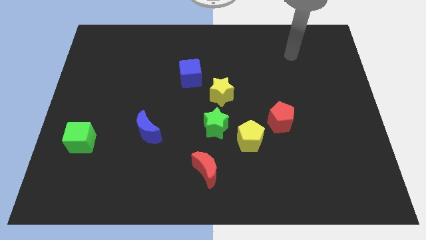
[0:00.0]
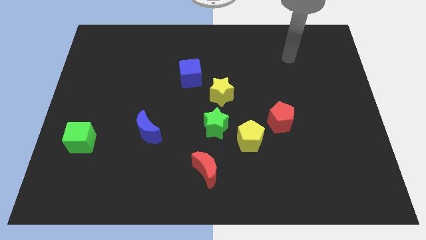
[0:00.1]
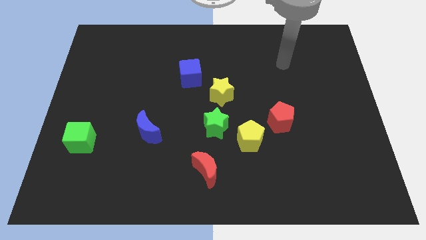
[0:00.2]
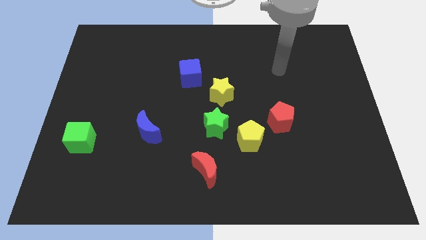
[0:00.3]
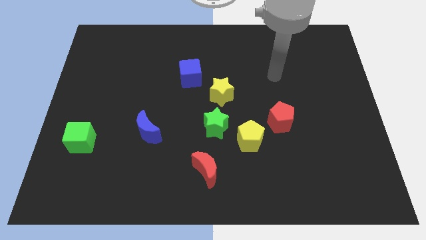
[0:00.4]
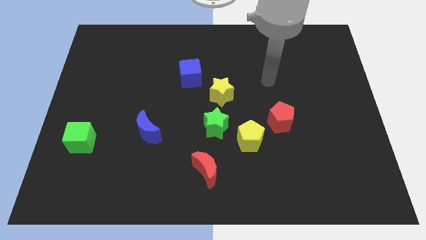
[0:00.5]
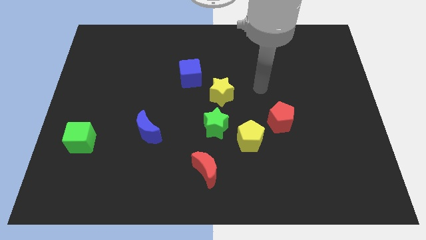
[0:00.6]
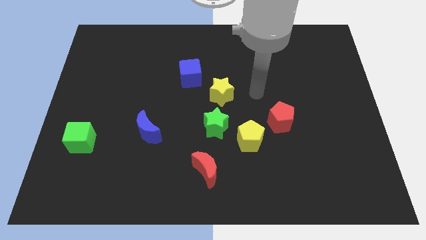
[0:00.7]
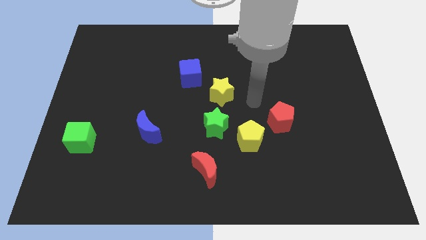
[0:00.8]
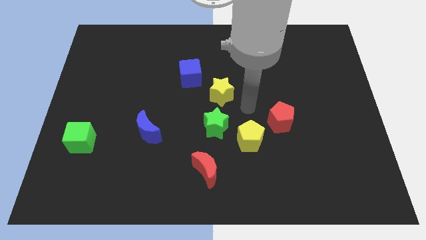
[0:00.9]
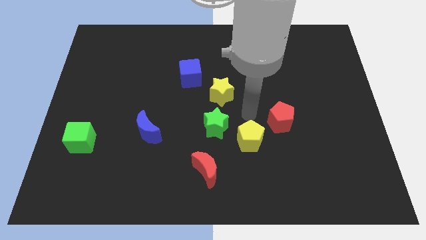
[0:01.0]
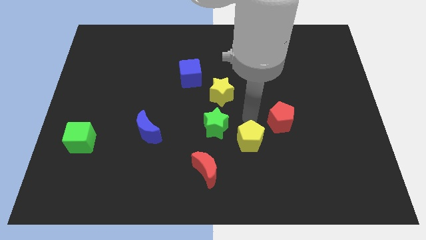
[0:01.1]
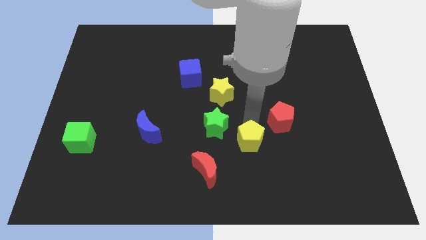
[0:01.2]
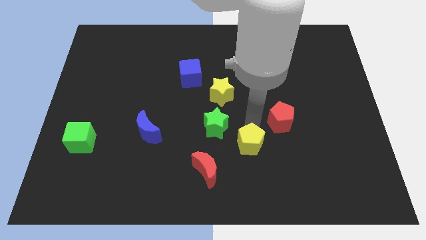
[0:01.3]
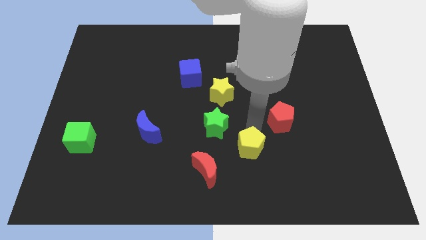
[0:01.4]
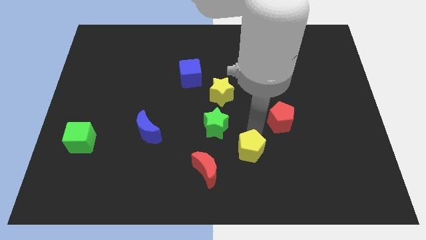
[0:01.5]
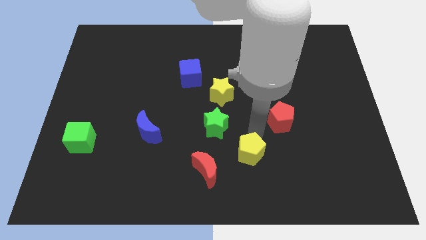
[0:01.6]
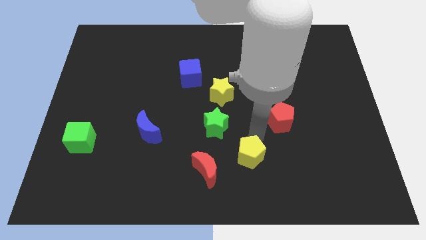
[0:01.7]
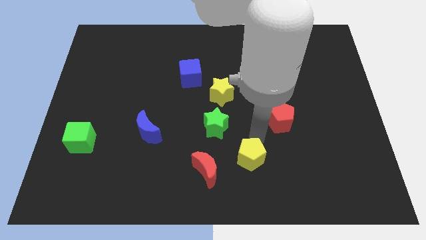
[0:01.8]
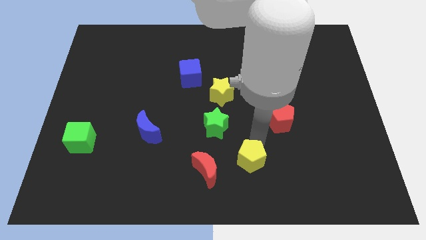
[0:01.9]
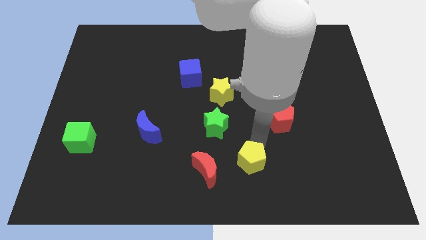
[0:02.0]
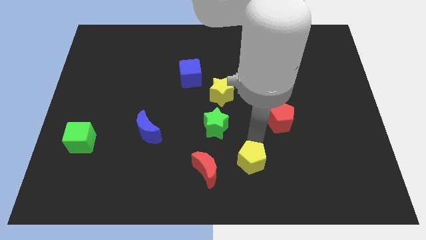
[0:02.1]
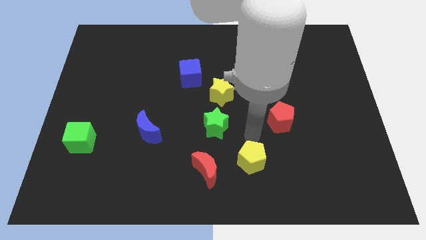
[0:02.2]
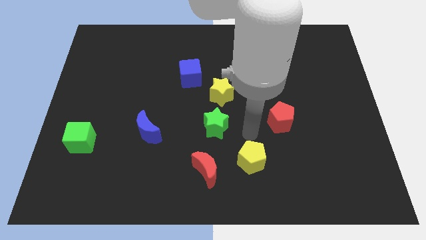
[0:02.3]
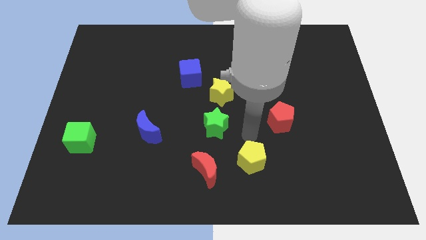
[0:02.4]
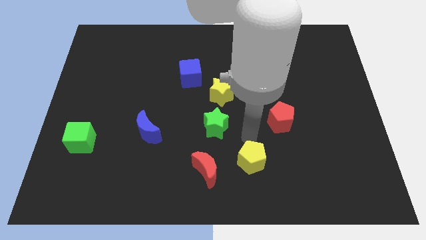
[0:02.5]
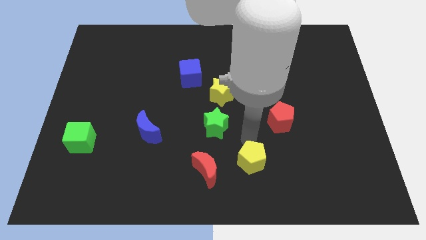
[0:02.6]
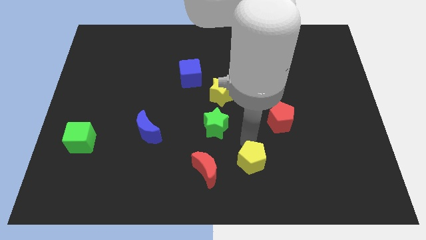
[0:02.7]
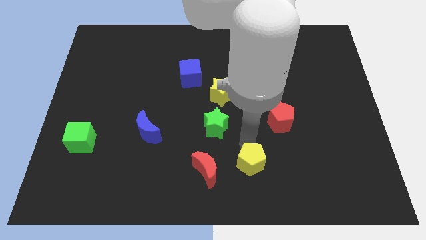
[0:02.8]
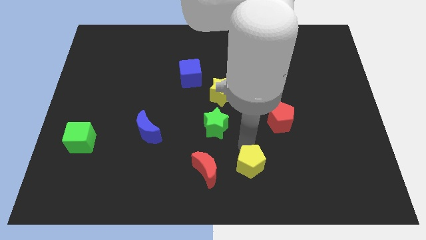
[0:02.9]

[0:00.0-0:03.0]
pull the yellow pentagon apart from the green star and red pentagon

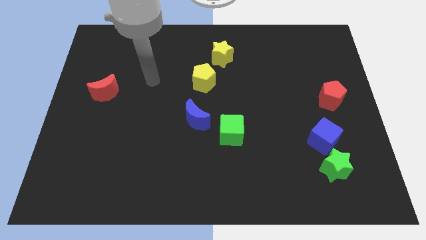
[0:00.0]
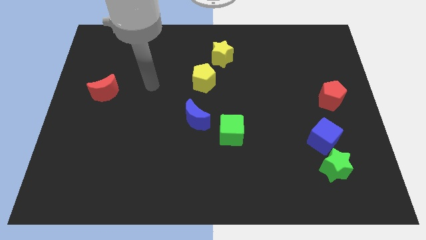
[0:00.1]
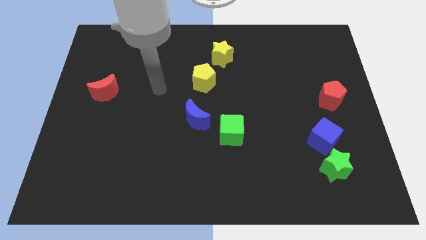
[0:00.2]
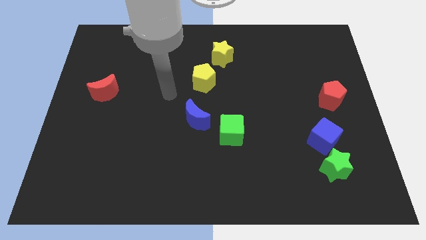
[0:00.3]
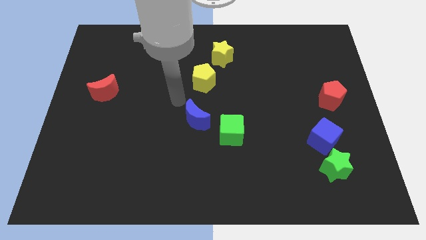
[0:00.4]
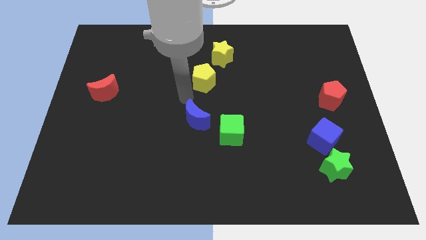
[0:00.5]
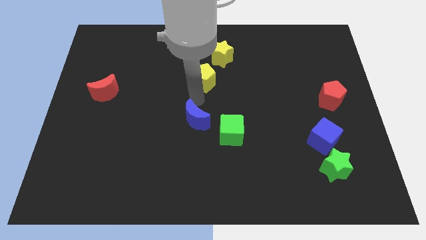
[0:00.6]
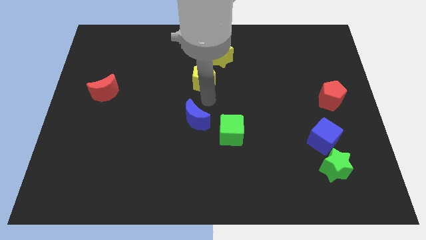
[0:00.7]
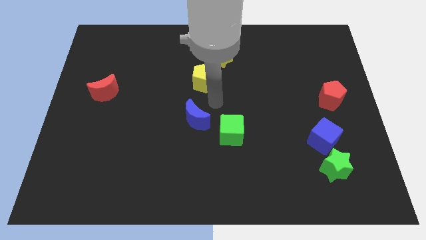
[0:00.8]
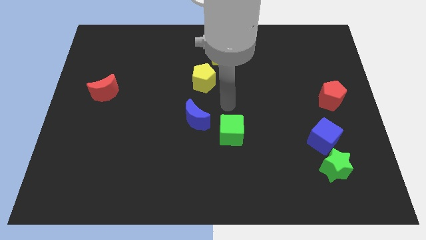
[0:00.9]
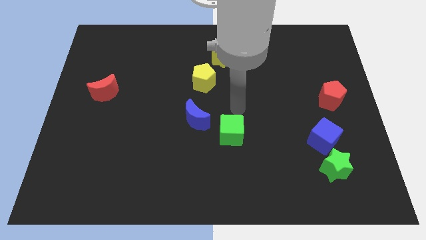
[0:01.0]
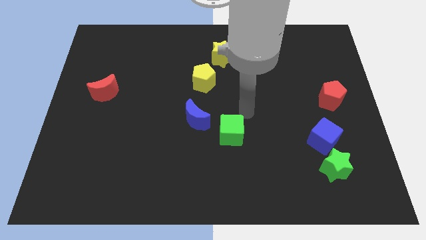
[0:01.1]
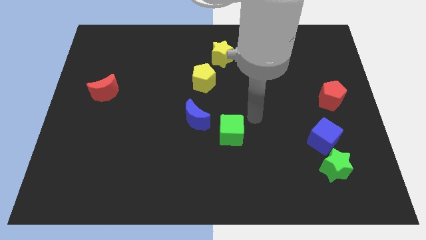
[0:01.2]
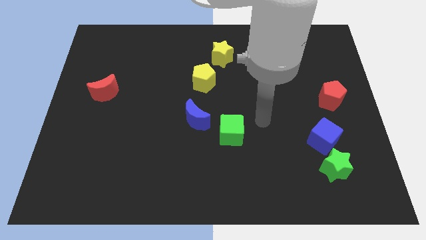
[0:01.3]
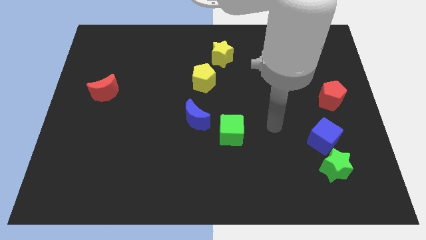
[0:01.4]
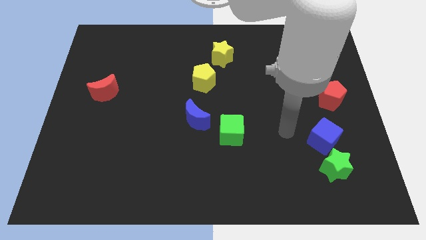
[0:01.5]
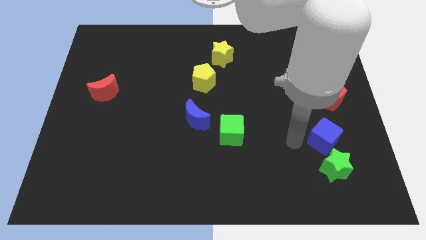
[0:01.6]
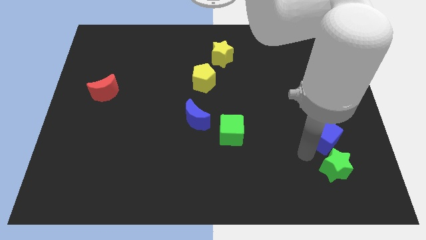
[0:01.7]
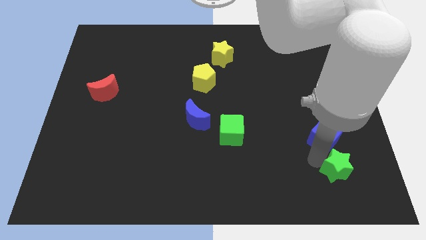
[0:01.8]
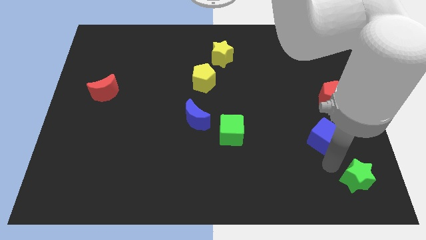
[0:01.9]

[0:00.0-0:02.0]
pull the blue cube apart from the green star

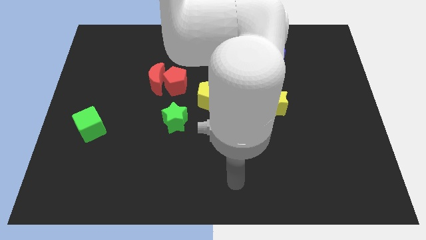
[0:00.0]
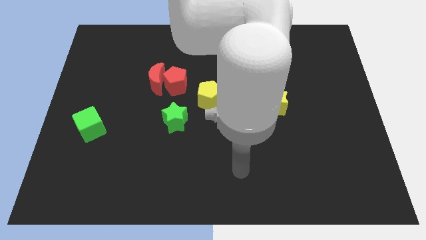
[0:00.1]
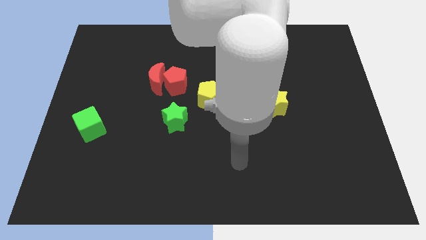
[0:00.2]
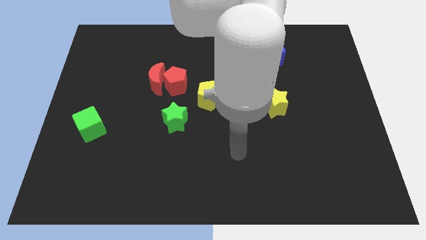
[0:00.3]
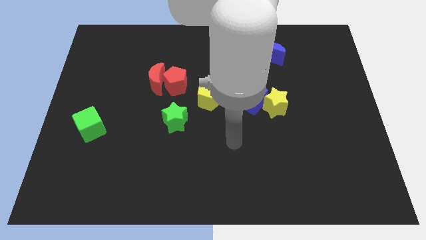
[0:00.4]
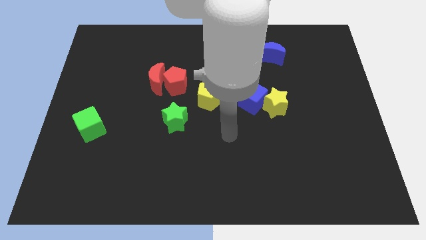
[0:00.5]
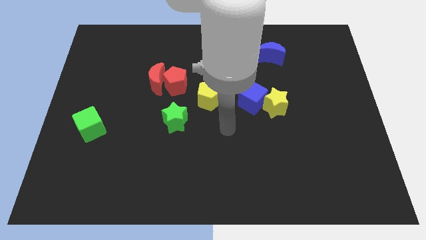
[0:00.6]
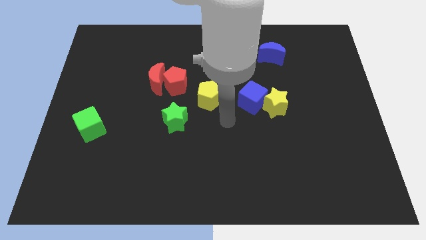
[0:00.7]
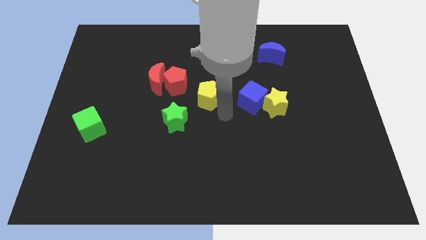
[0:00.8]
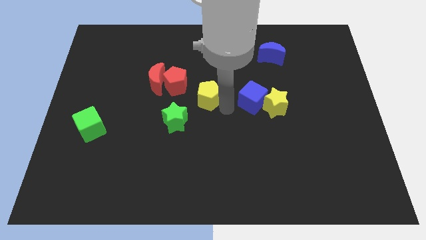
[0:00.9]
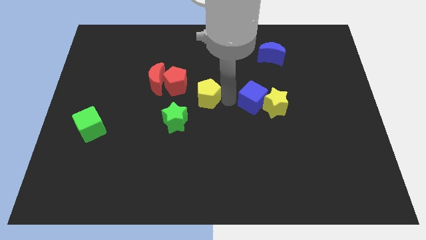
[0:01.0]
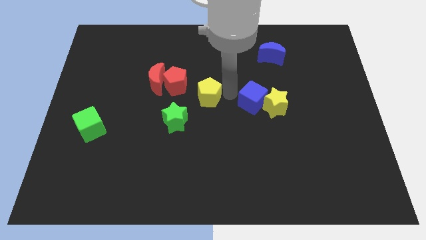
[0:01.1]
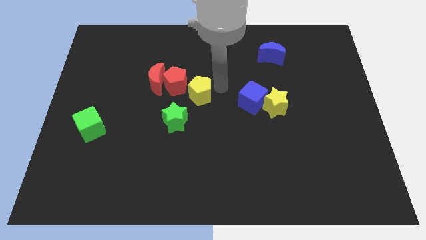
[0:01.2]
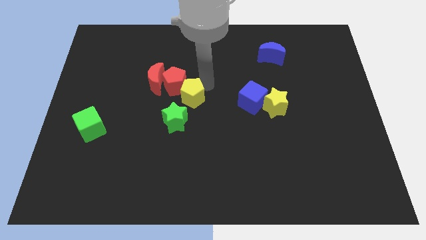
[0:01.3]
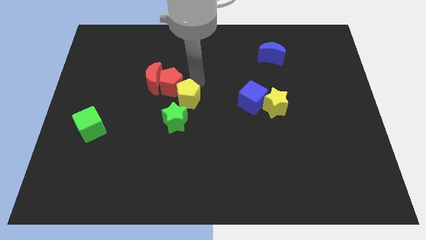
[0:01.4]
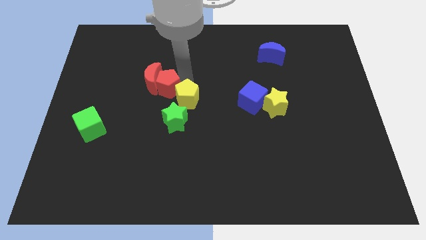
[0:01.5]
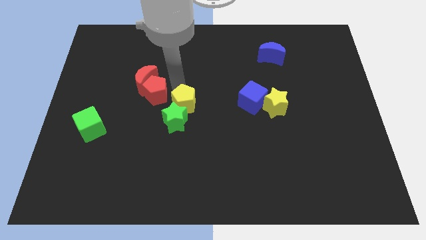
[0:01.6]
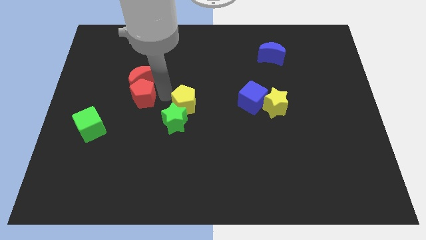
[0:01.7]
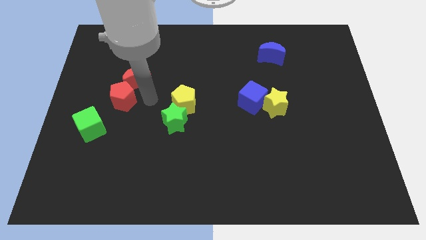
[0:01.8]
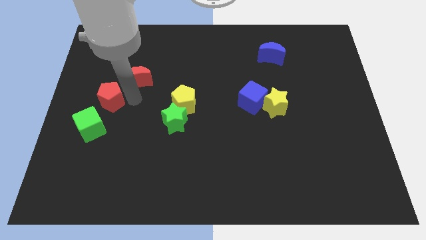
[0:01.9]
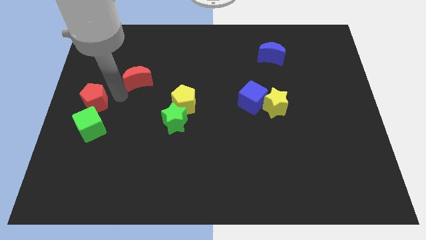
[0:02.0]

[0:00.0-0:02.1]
move the red moon away from the red pentagon

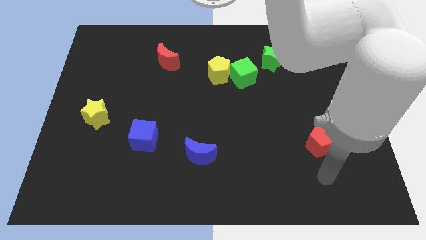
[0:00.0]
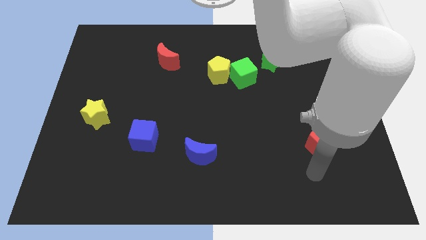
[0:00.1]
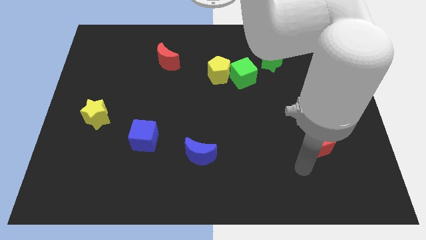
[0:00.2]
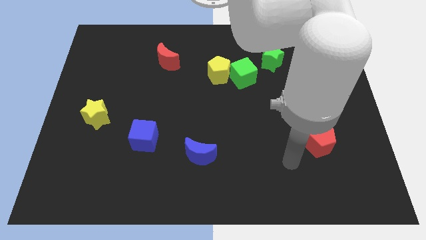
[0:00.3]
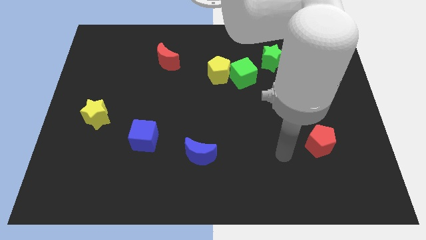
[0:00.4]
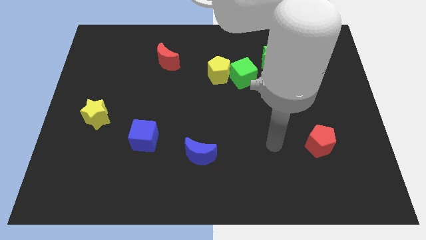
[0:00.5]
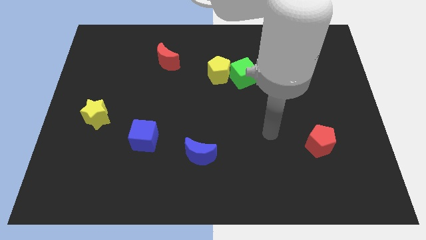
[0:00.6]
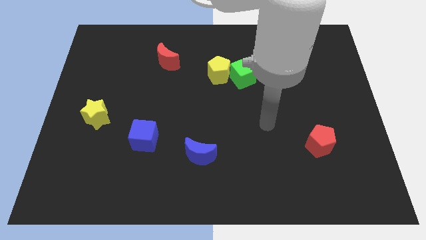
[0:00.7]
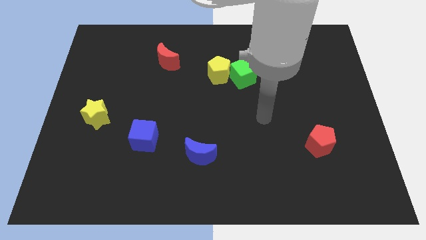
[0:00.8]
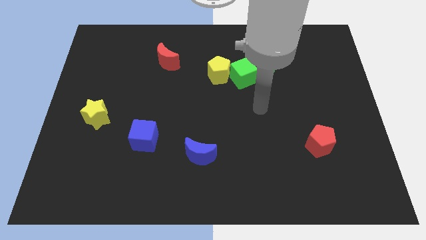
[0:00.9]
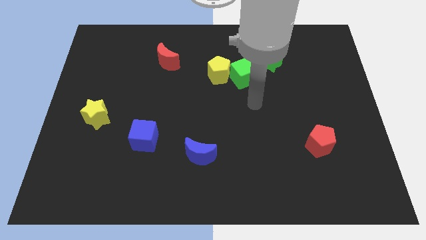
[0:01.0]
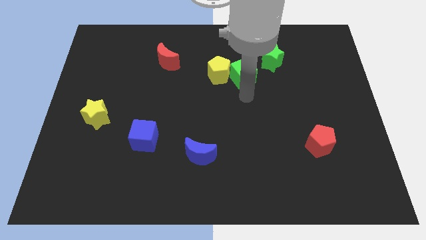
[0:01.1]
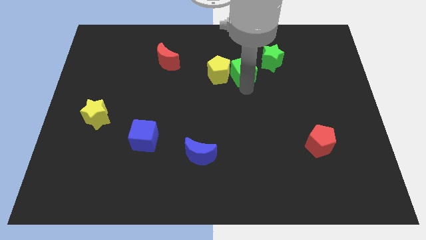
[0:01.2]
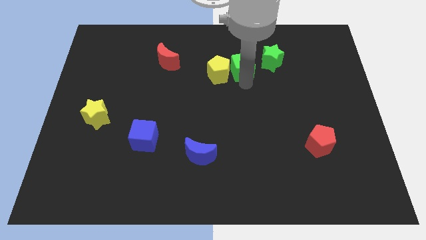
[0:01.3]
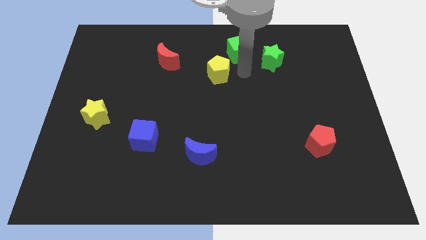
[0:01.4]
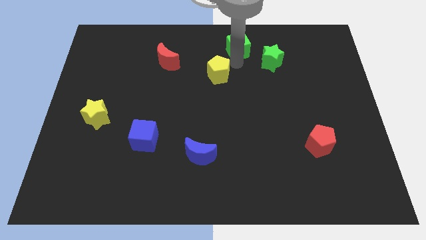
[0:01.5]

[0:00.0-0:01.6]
pull the yellow pentagon apart from the green cube

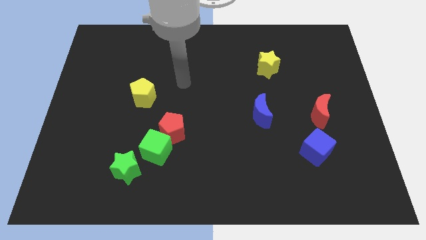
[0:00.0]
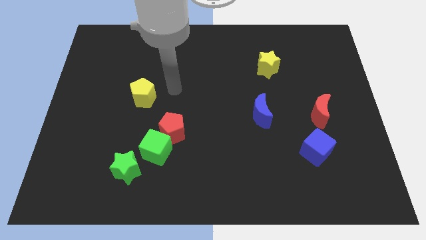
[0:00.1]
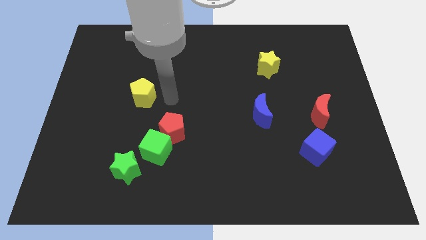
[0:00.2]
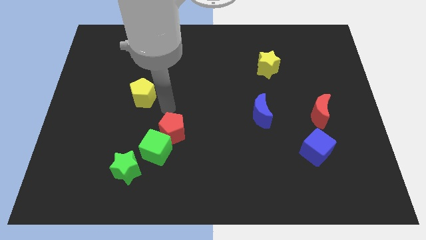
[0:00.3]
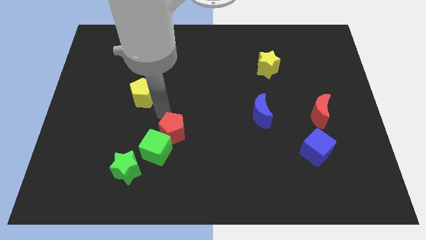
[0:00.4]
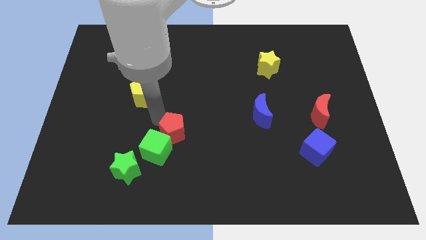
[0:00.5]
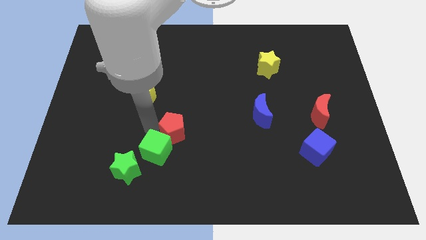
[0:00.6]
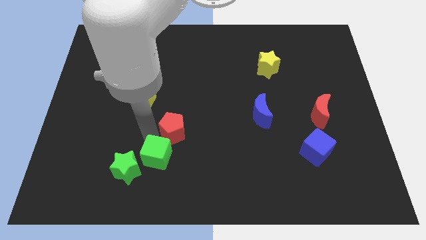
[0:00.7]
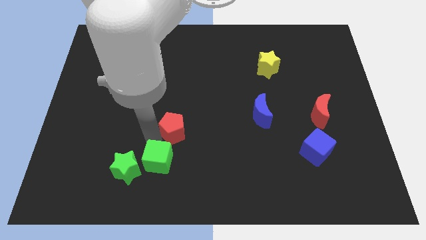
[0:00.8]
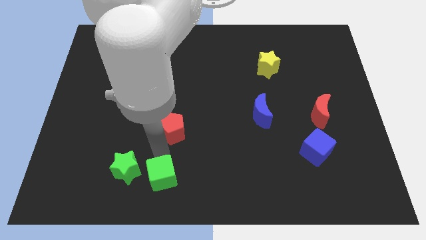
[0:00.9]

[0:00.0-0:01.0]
pull the red pentagon apart from the green cube
